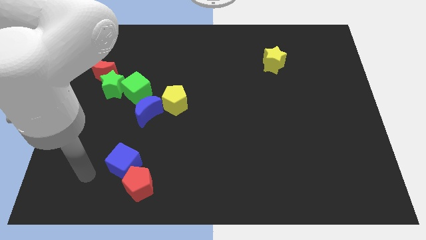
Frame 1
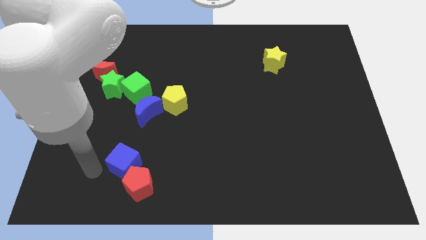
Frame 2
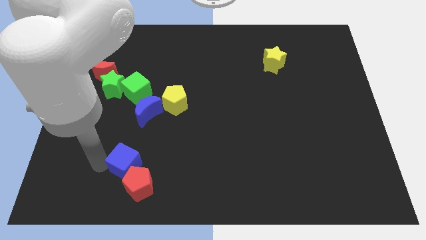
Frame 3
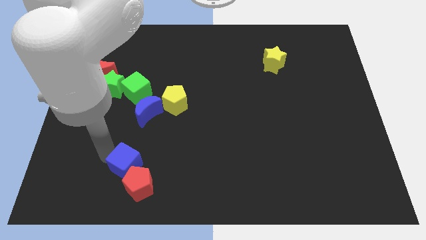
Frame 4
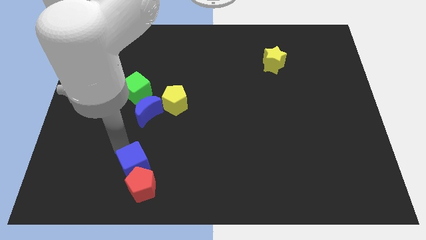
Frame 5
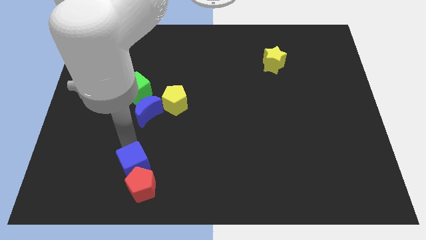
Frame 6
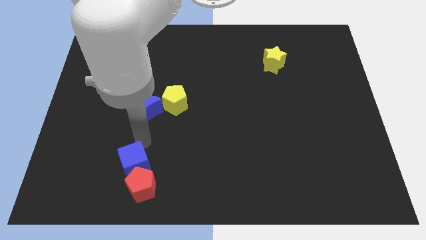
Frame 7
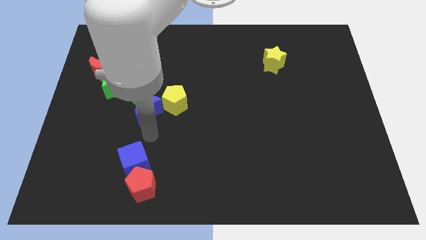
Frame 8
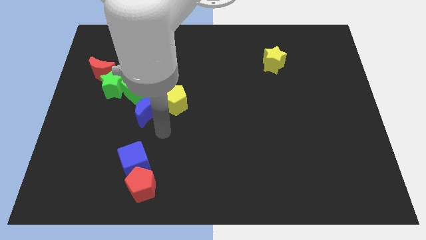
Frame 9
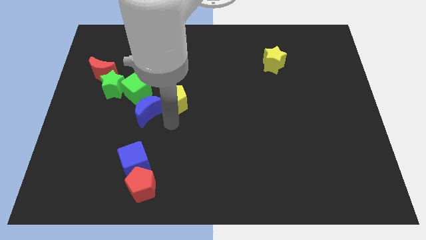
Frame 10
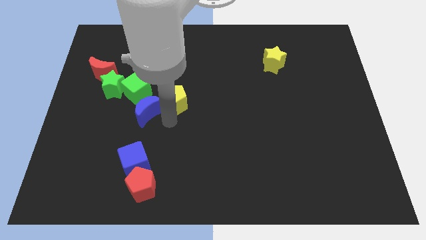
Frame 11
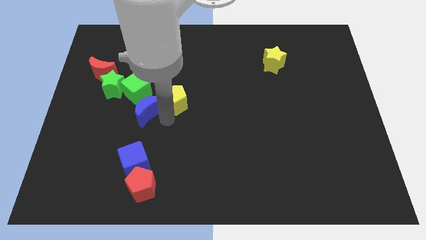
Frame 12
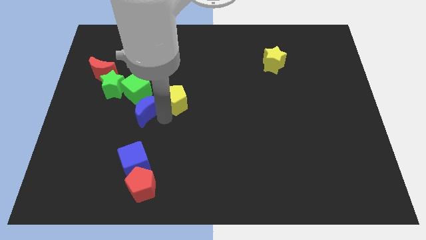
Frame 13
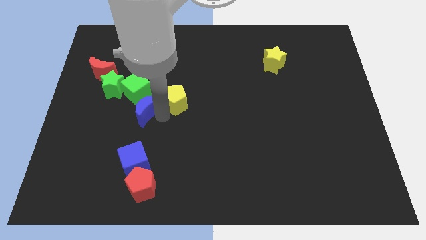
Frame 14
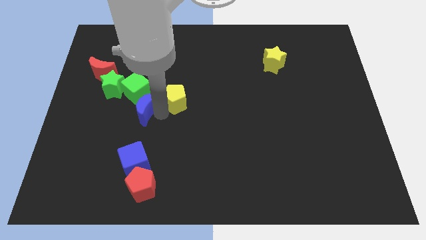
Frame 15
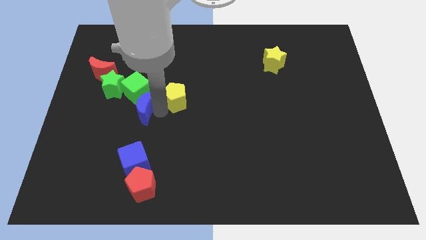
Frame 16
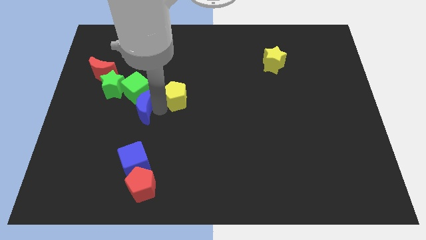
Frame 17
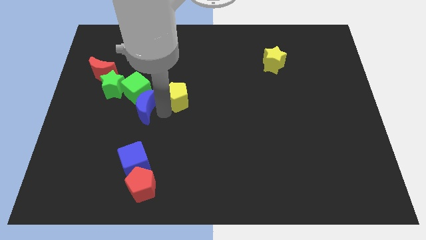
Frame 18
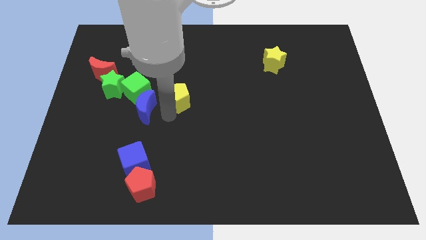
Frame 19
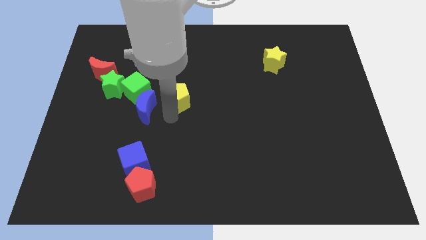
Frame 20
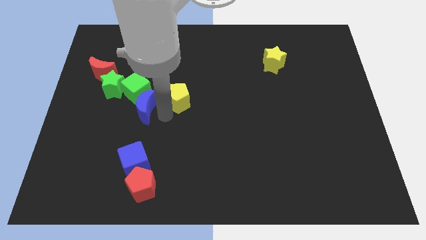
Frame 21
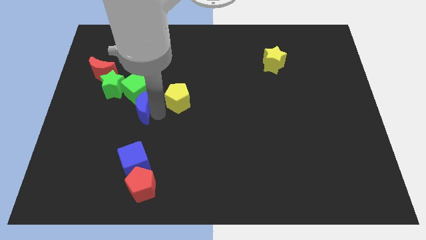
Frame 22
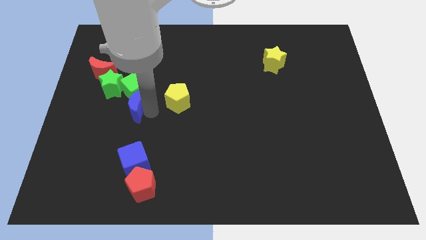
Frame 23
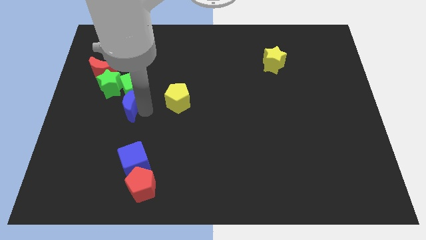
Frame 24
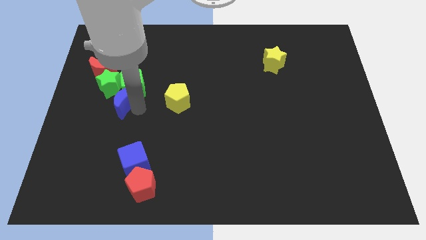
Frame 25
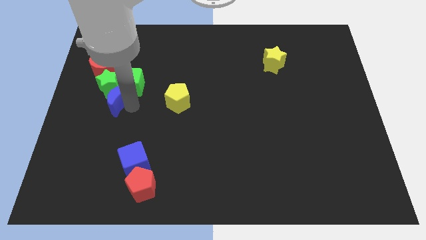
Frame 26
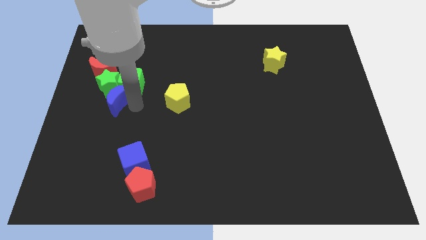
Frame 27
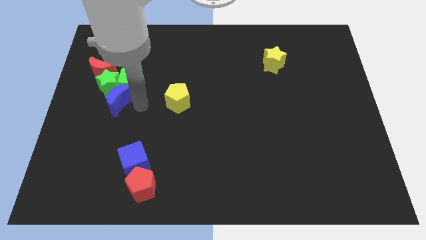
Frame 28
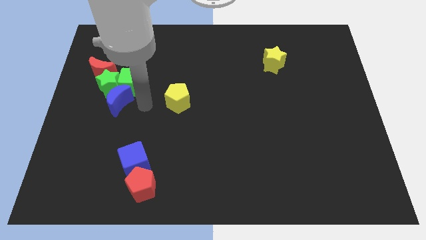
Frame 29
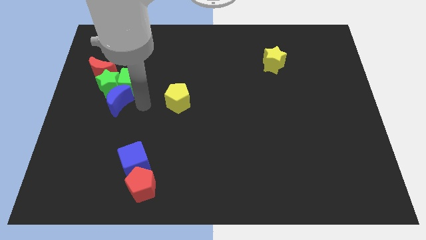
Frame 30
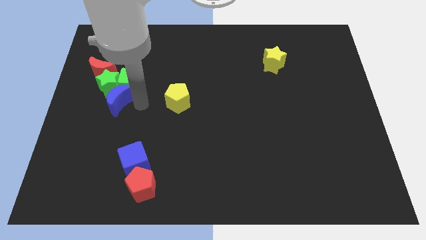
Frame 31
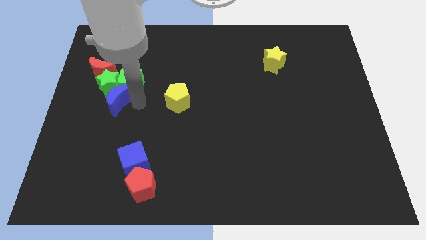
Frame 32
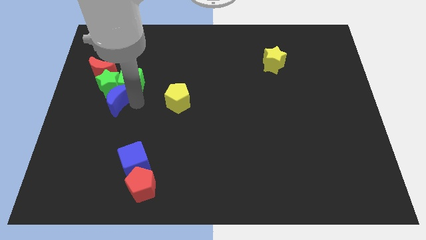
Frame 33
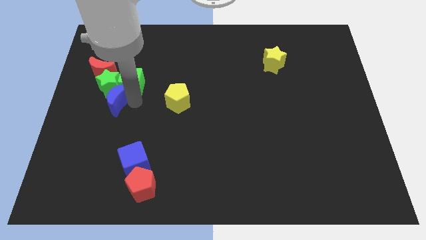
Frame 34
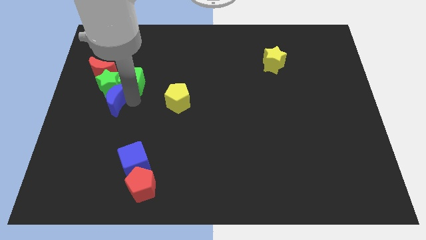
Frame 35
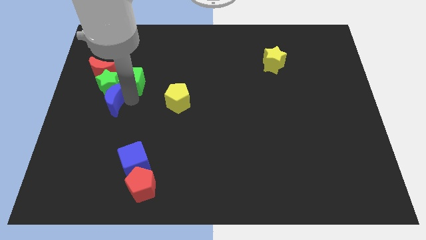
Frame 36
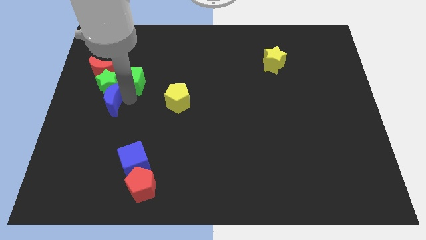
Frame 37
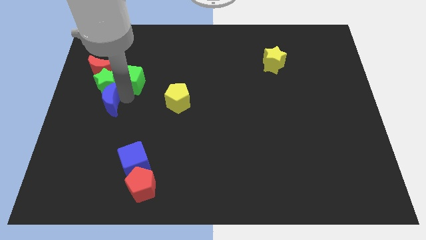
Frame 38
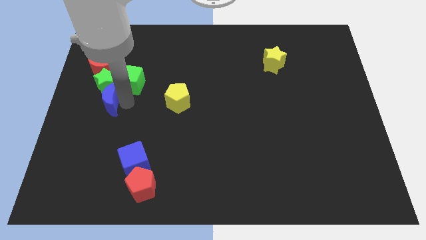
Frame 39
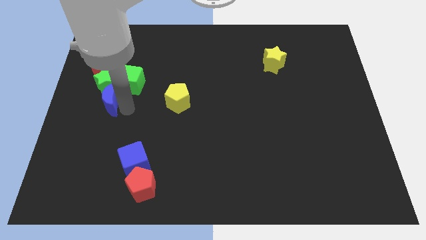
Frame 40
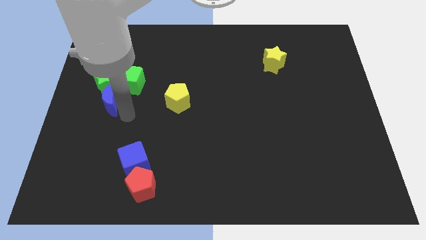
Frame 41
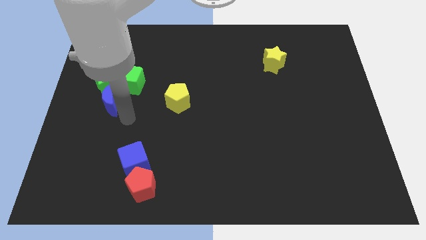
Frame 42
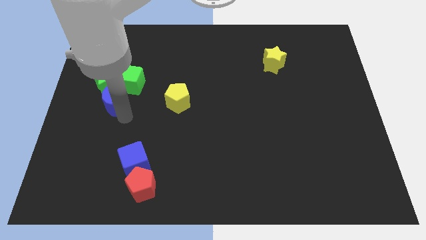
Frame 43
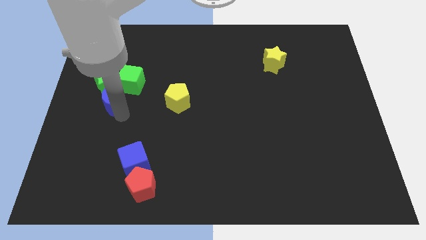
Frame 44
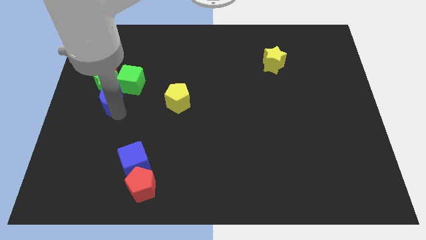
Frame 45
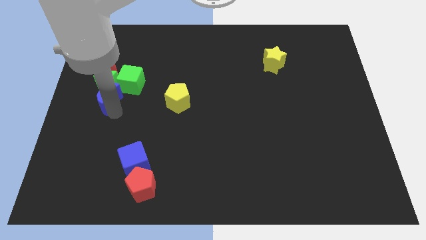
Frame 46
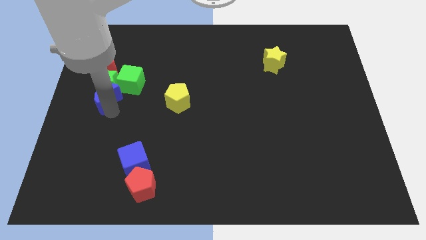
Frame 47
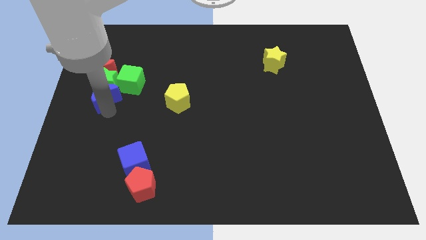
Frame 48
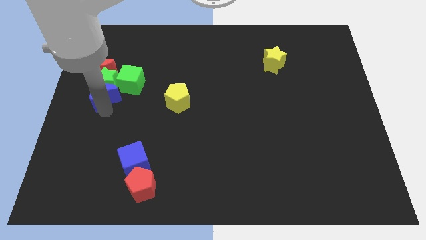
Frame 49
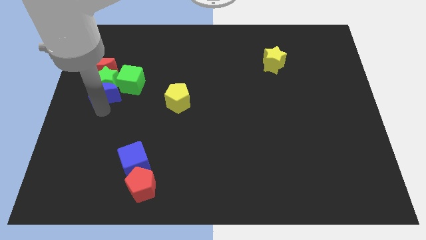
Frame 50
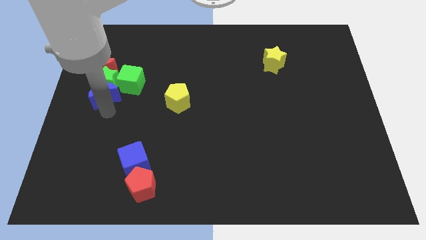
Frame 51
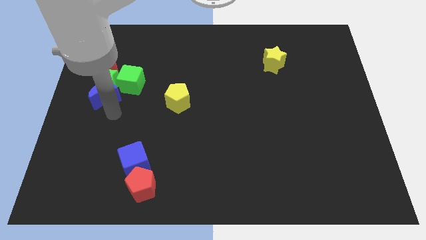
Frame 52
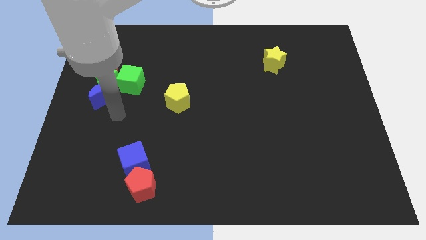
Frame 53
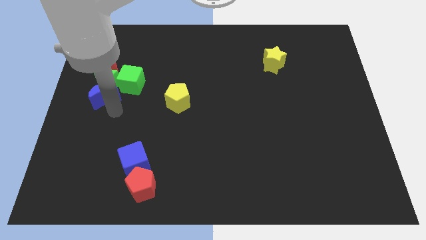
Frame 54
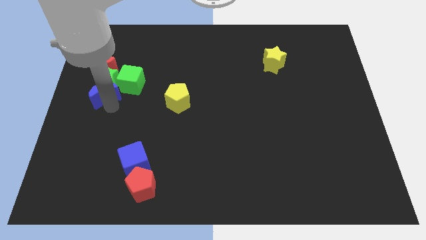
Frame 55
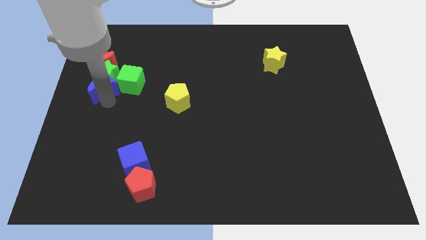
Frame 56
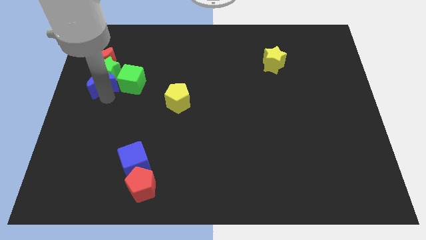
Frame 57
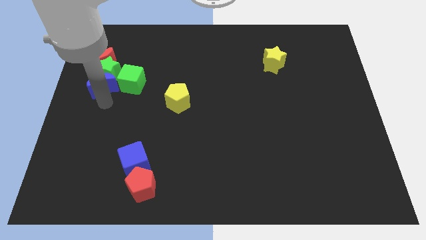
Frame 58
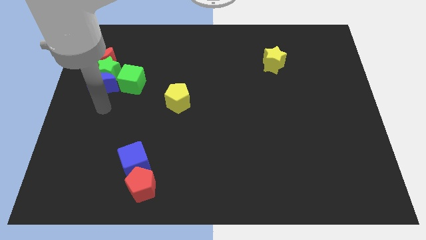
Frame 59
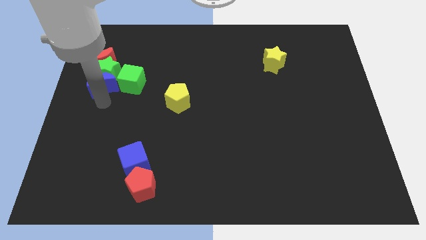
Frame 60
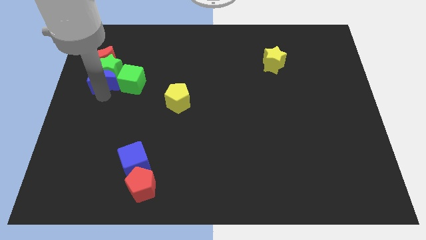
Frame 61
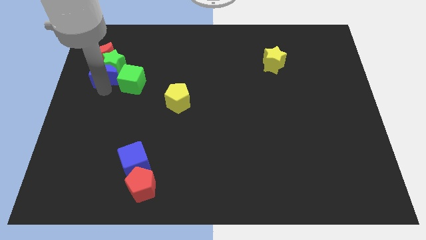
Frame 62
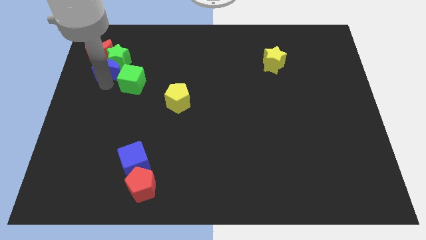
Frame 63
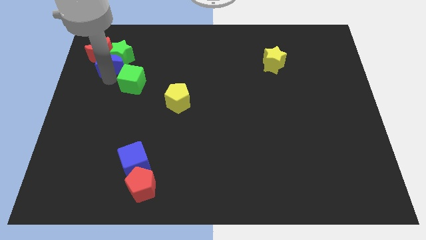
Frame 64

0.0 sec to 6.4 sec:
move the blue moon next to the red moon

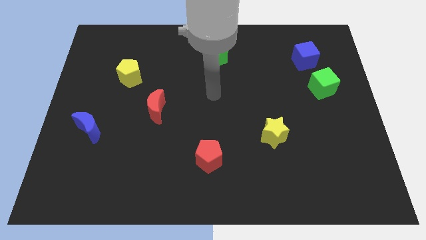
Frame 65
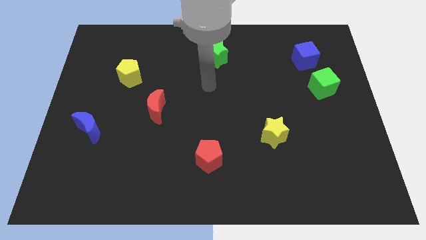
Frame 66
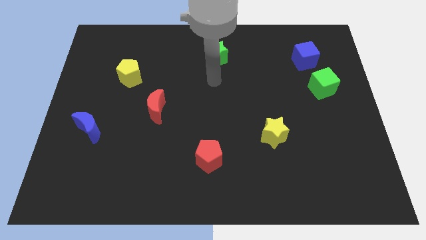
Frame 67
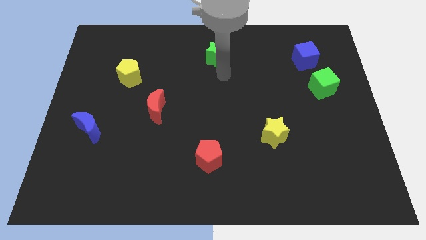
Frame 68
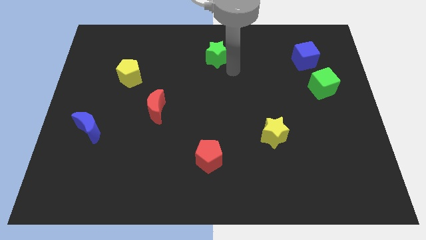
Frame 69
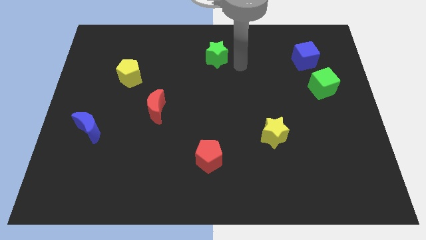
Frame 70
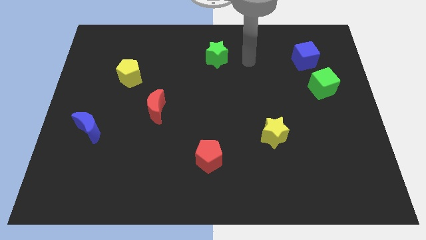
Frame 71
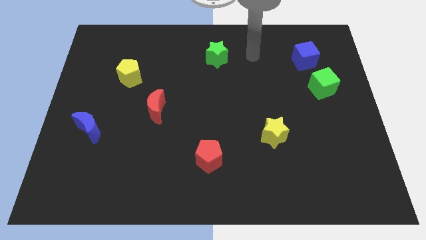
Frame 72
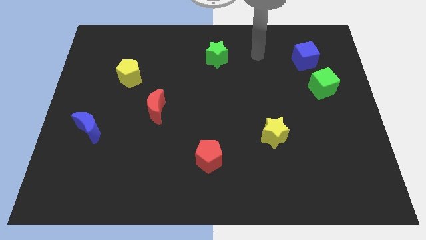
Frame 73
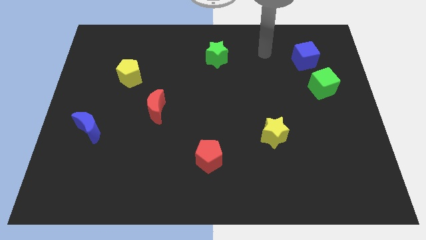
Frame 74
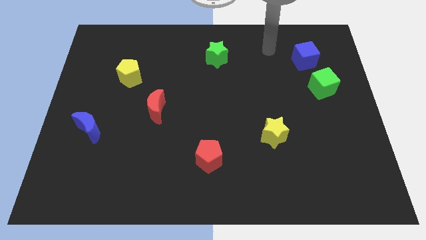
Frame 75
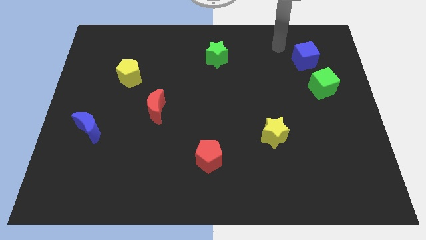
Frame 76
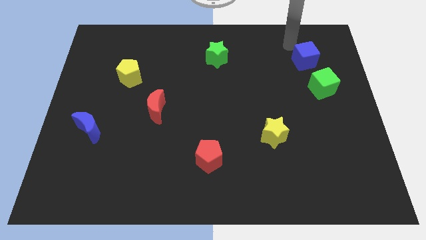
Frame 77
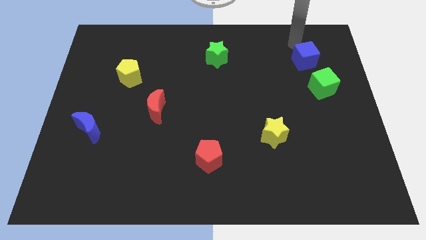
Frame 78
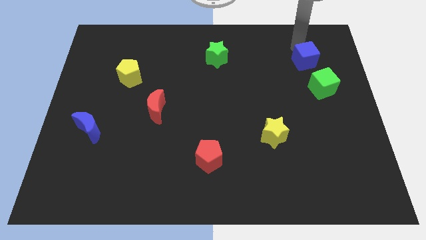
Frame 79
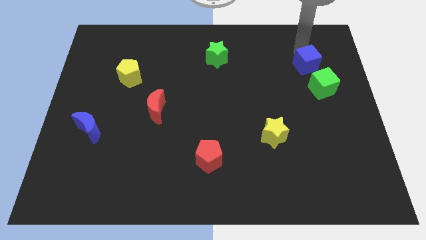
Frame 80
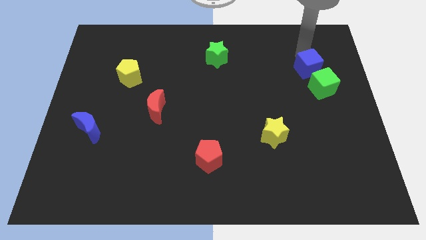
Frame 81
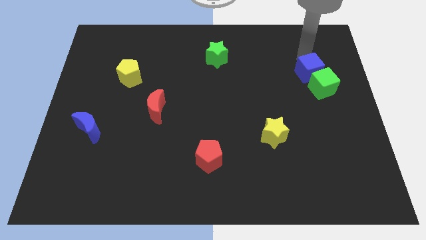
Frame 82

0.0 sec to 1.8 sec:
move the blue cube next to the green cube

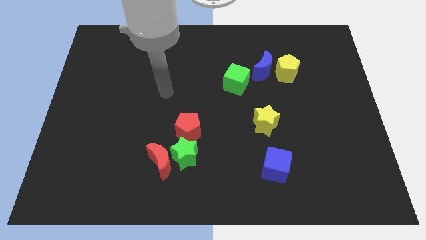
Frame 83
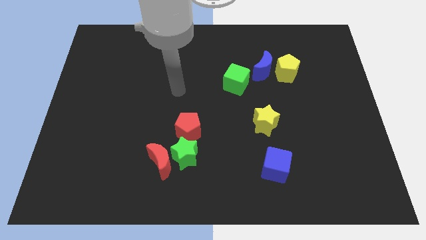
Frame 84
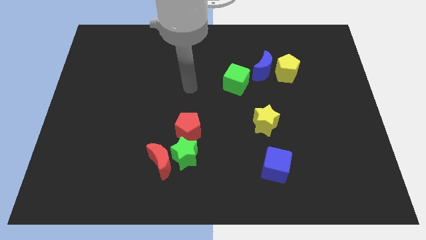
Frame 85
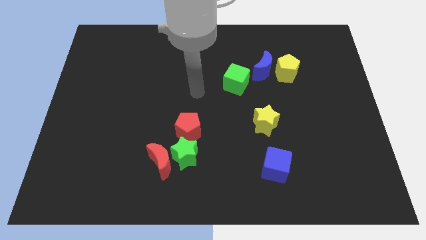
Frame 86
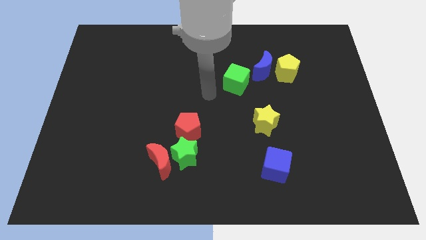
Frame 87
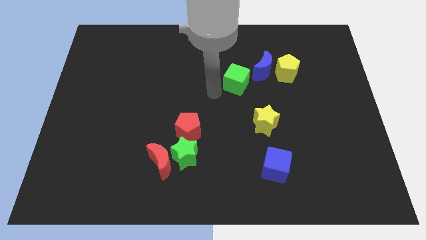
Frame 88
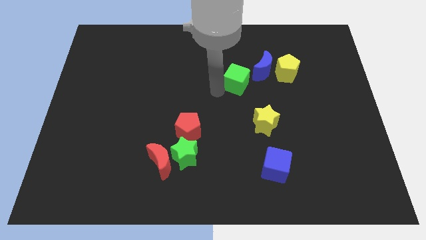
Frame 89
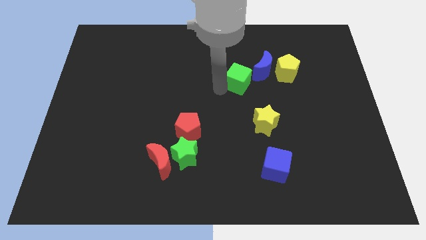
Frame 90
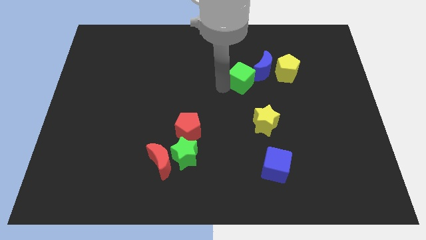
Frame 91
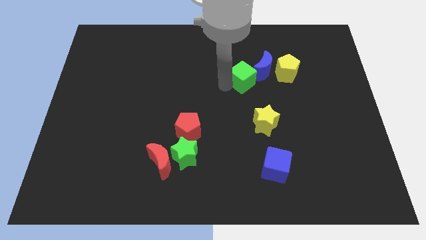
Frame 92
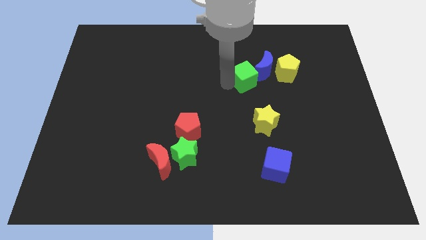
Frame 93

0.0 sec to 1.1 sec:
put the green cube towards the blue moon
